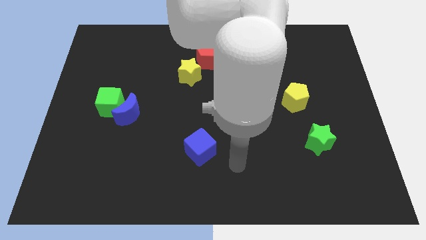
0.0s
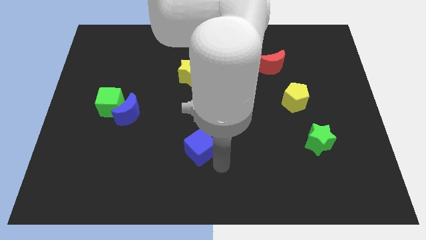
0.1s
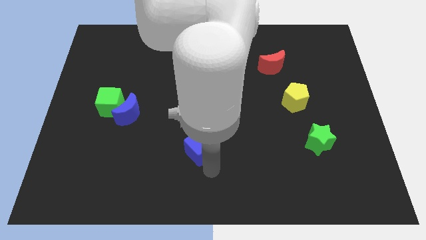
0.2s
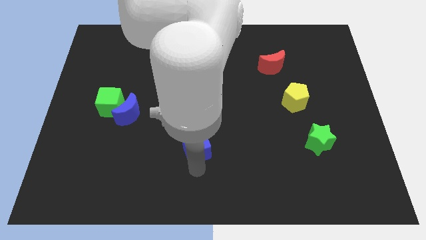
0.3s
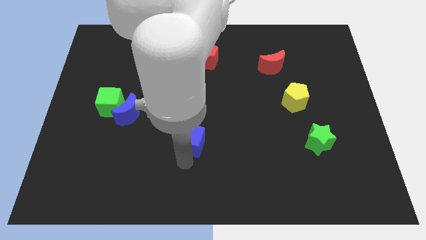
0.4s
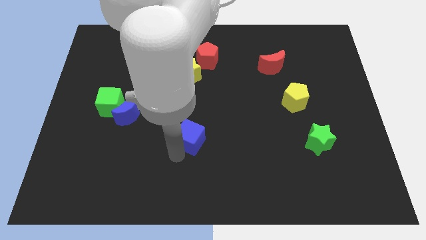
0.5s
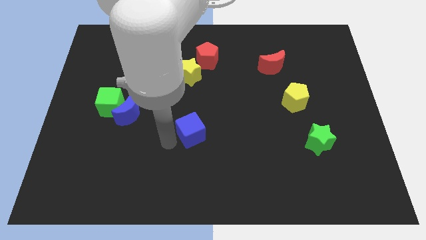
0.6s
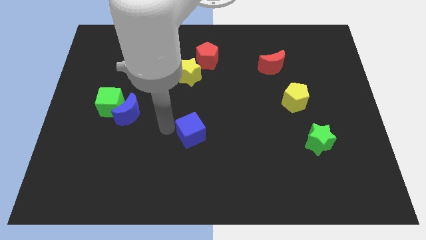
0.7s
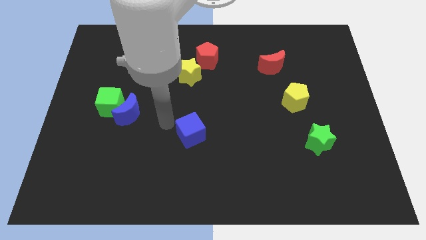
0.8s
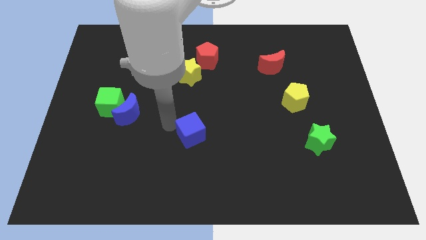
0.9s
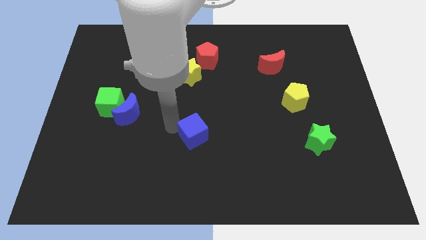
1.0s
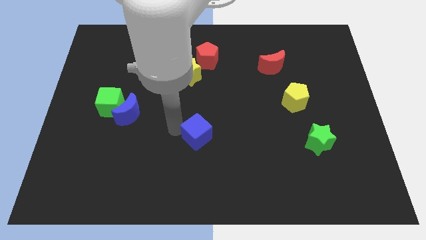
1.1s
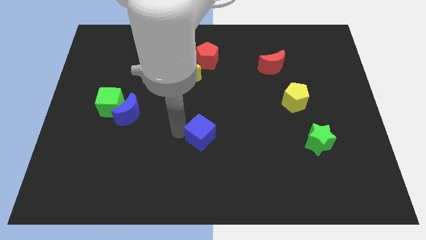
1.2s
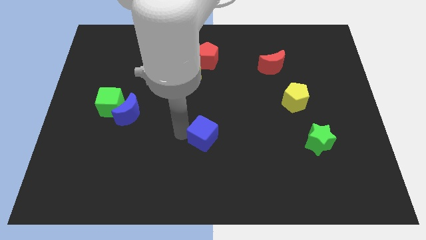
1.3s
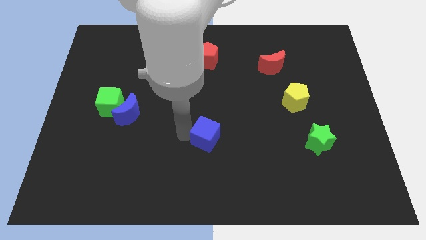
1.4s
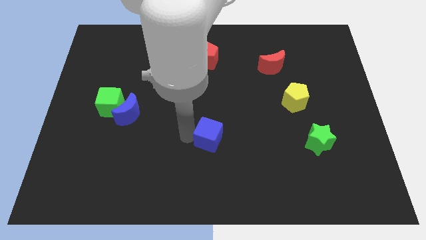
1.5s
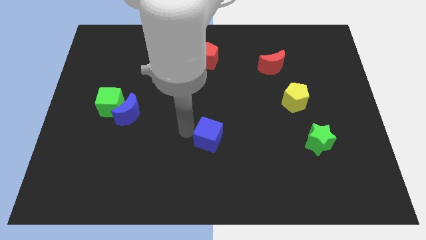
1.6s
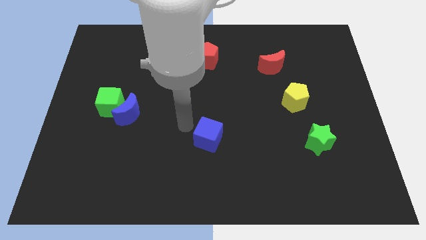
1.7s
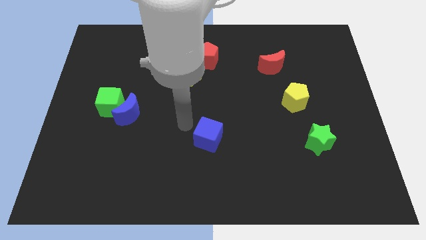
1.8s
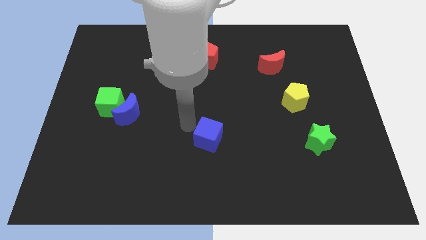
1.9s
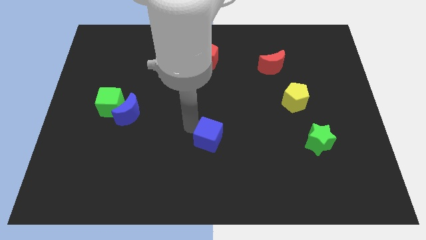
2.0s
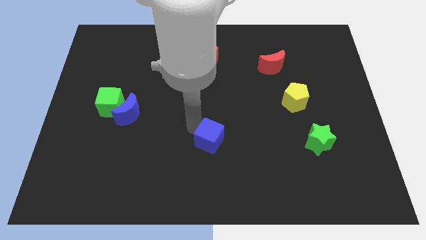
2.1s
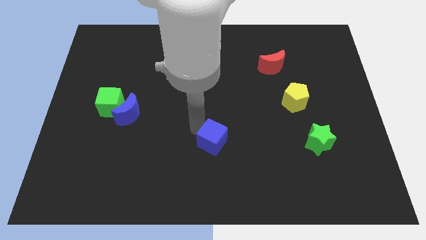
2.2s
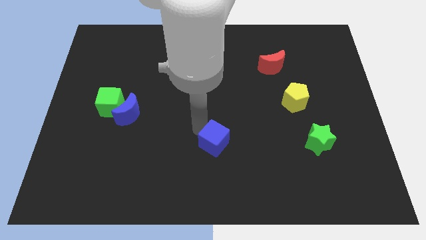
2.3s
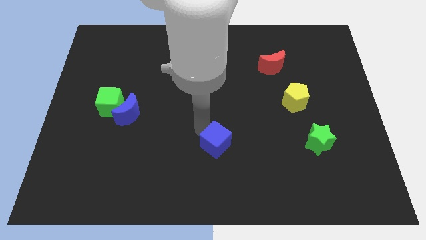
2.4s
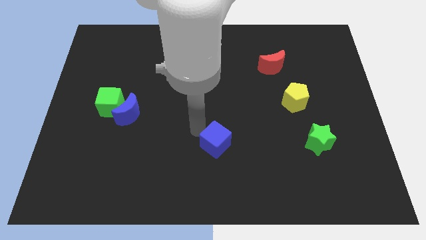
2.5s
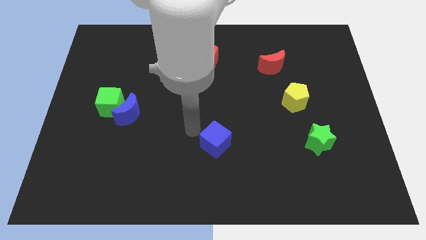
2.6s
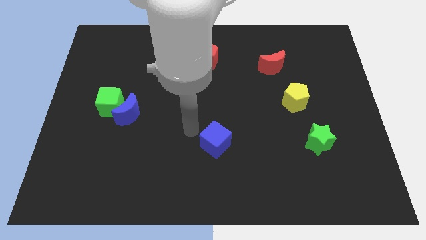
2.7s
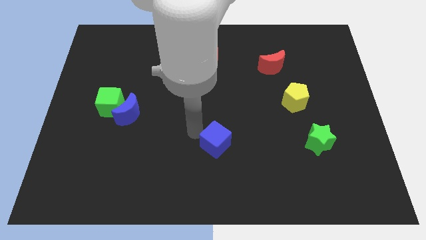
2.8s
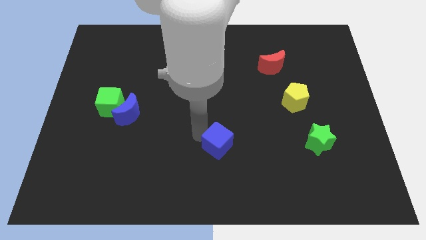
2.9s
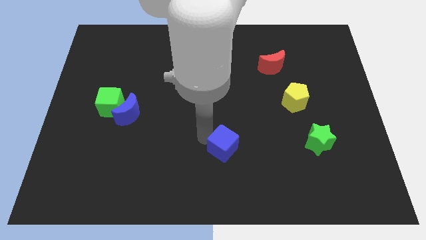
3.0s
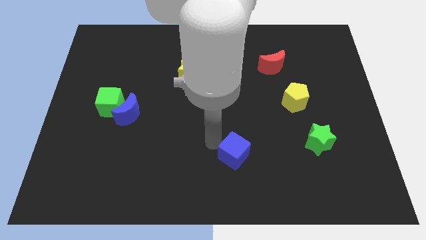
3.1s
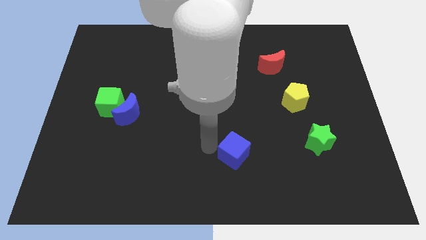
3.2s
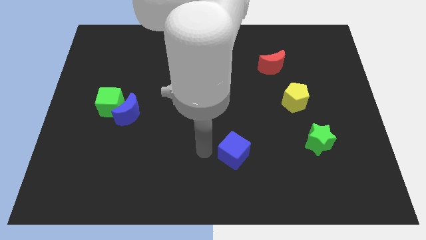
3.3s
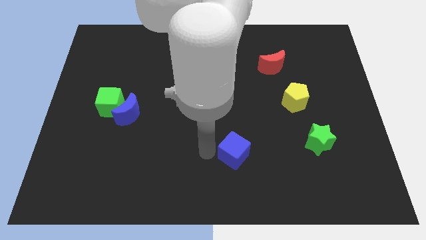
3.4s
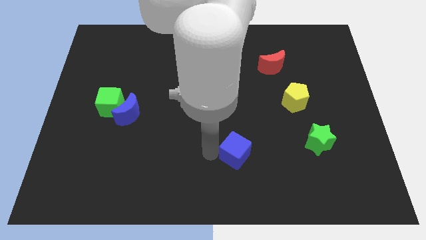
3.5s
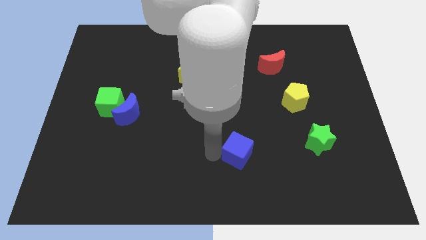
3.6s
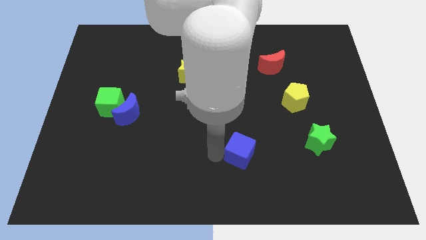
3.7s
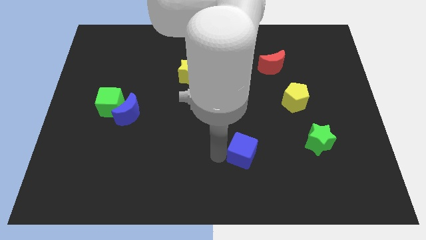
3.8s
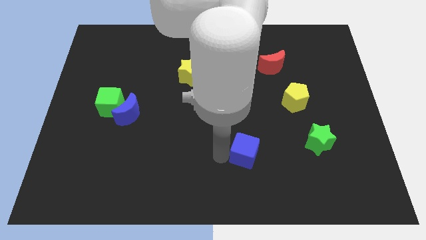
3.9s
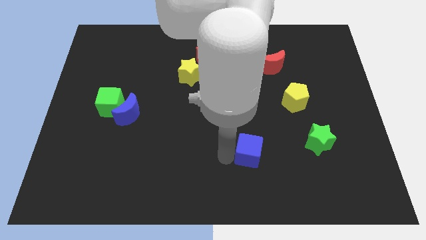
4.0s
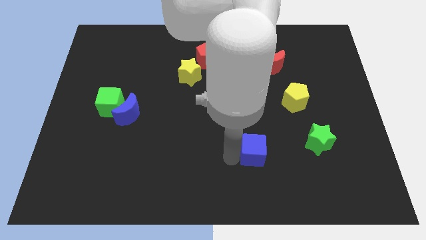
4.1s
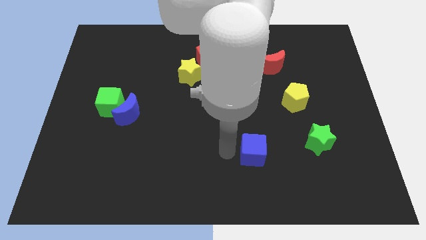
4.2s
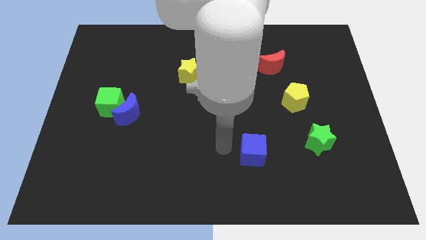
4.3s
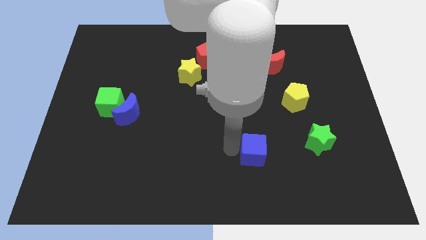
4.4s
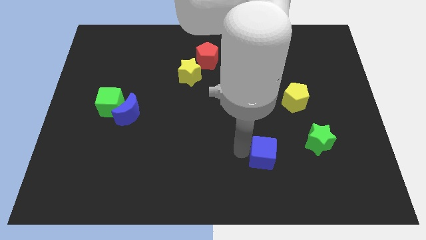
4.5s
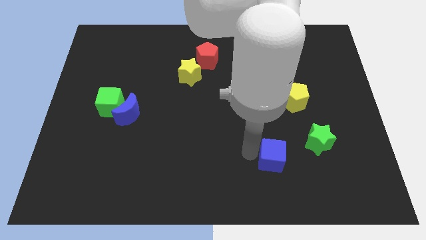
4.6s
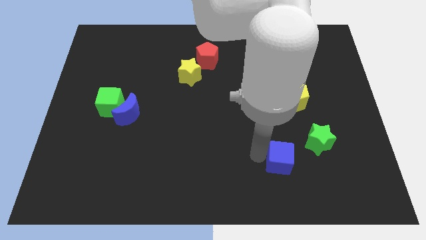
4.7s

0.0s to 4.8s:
slide the blue cube diagonally down and to the left of the green star

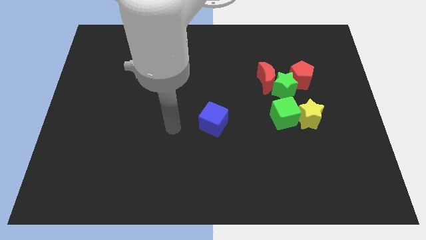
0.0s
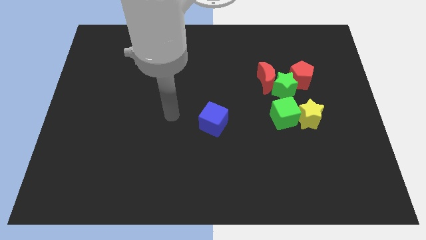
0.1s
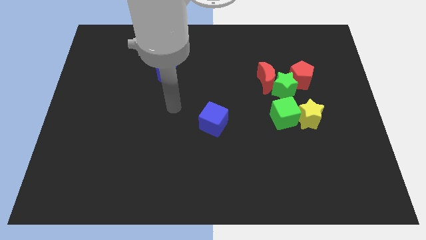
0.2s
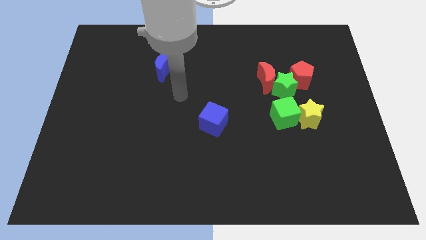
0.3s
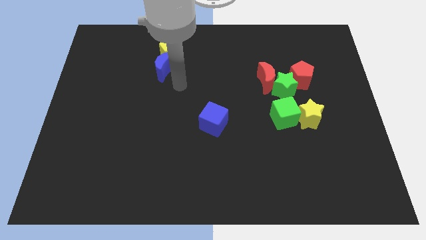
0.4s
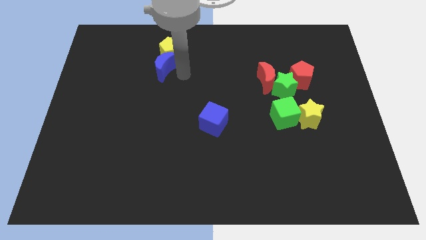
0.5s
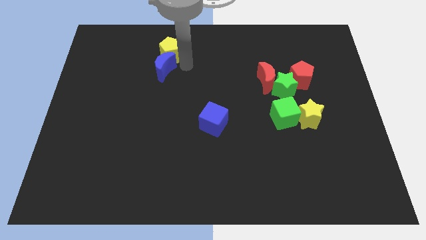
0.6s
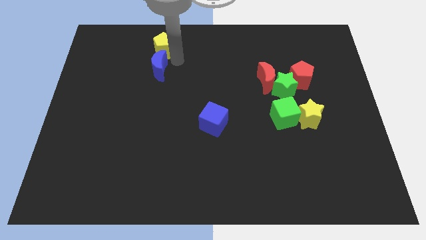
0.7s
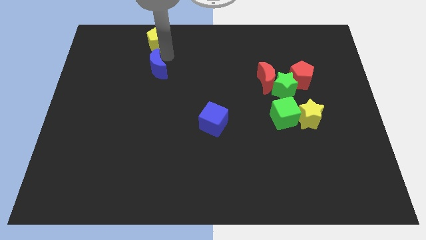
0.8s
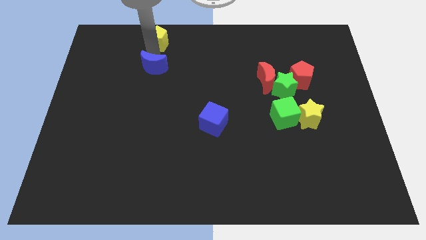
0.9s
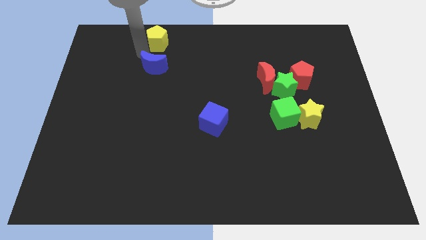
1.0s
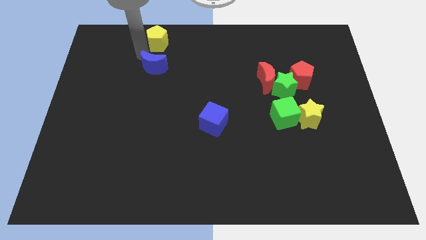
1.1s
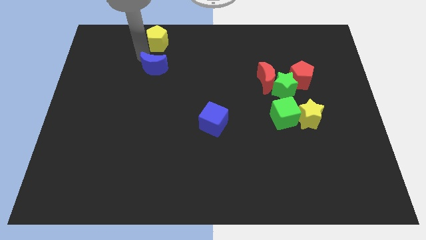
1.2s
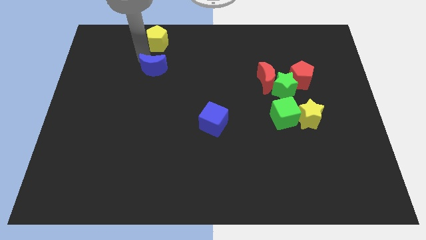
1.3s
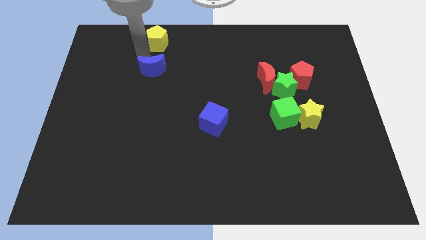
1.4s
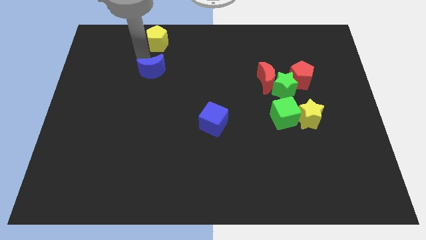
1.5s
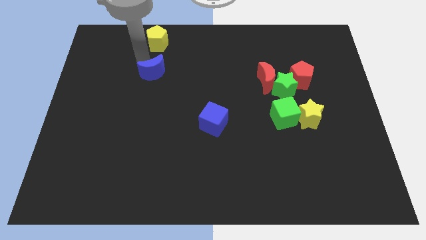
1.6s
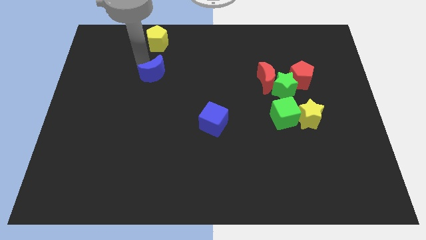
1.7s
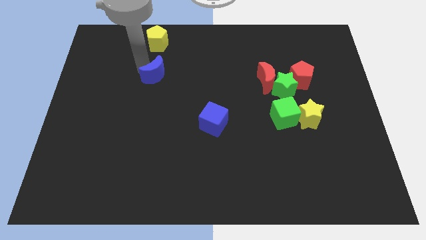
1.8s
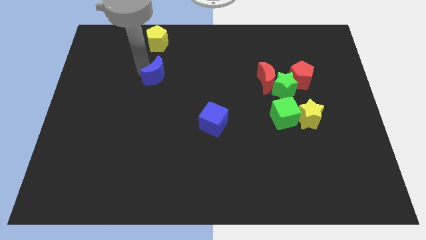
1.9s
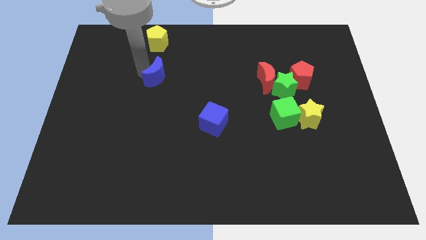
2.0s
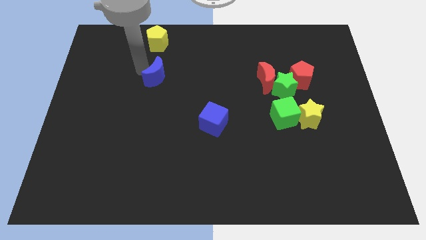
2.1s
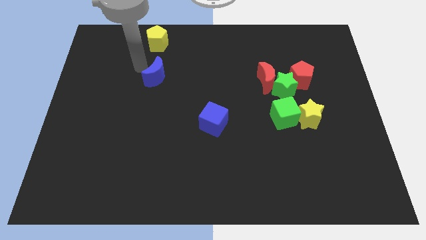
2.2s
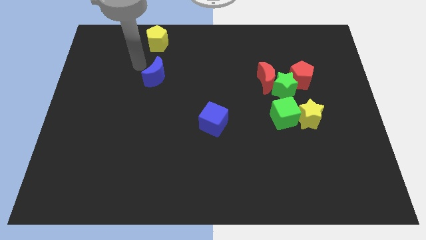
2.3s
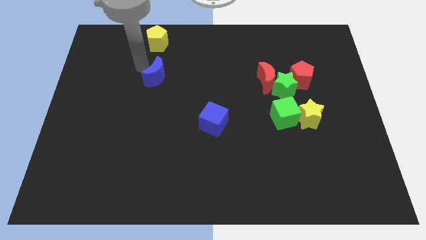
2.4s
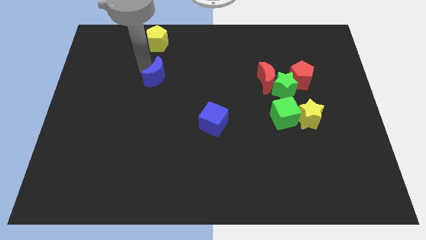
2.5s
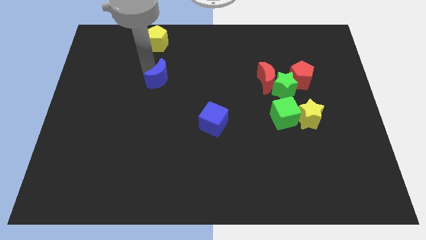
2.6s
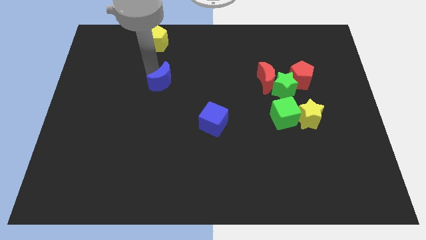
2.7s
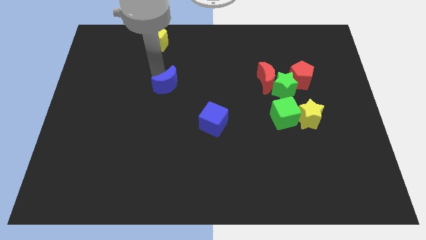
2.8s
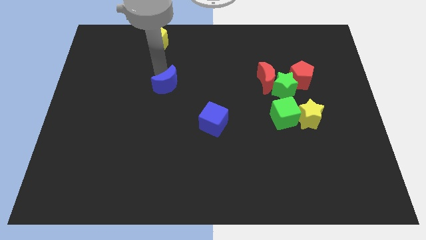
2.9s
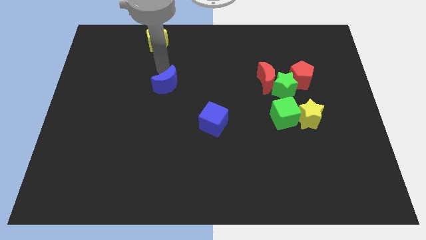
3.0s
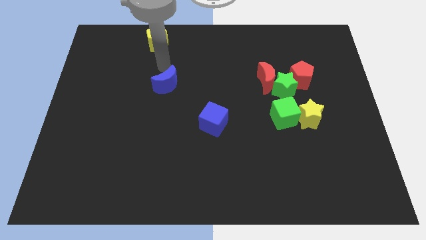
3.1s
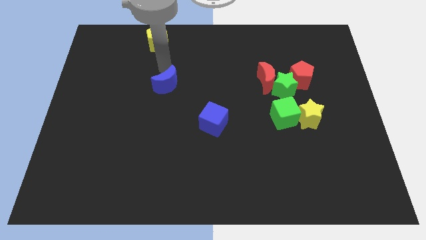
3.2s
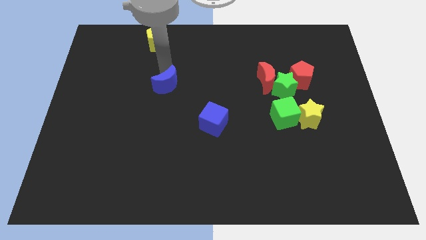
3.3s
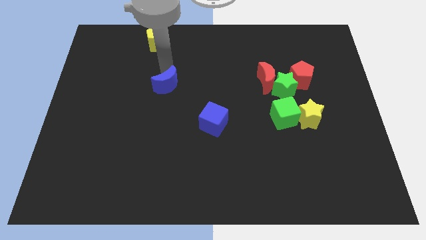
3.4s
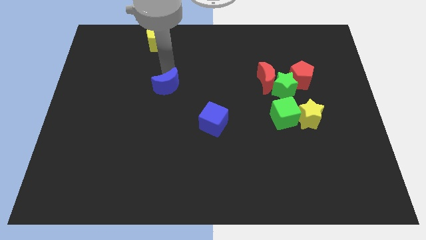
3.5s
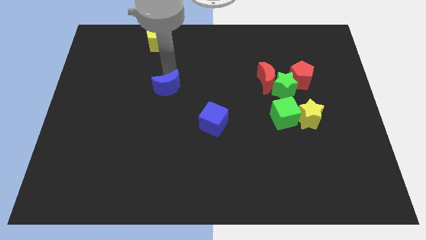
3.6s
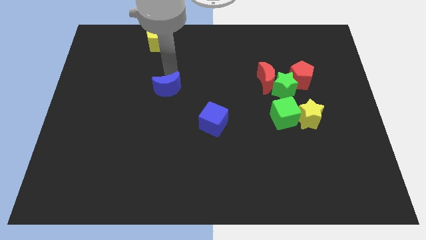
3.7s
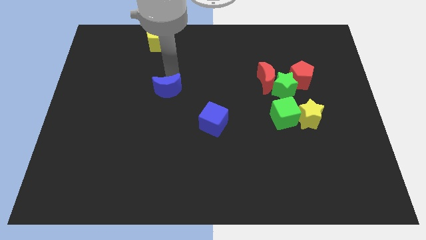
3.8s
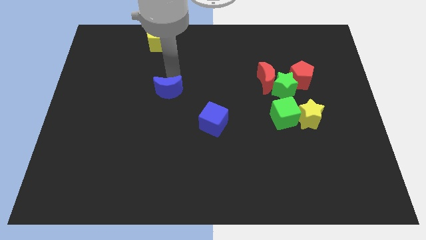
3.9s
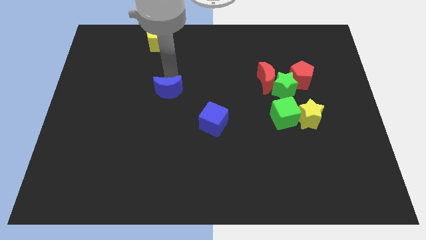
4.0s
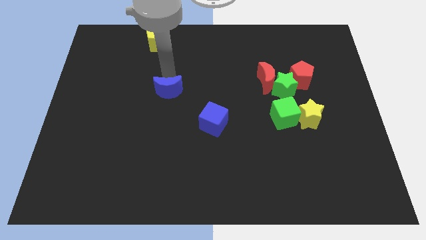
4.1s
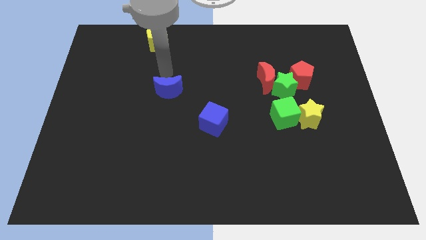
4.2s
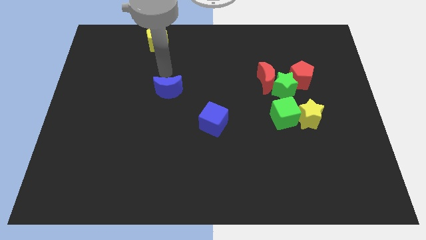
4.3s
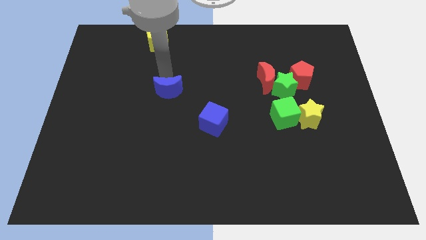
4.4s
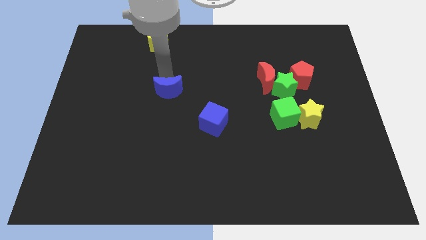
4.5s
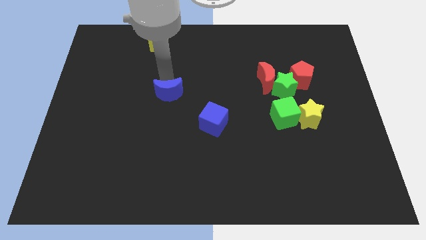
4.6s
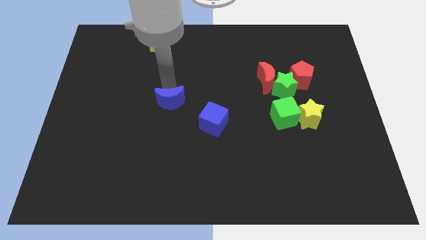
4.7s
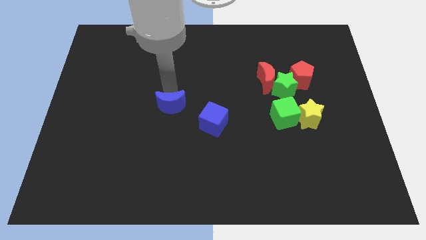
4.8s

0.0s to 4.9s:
slide the blue moon to the left side of the blue cube
